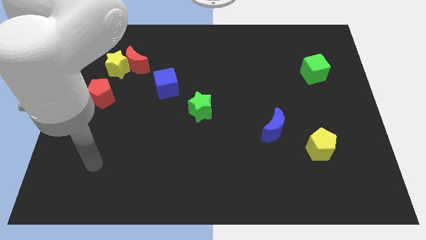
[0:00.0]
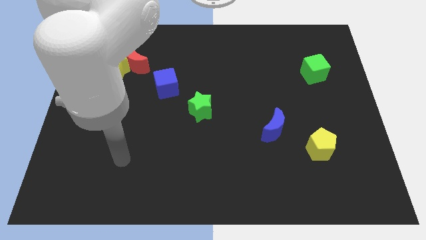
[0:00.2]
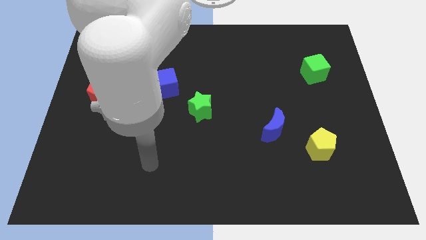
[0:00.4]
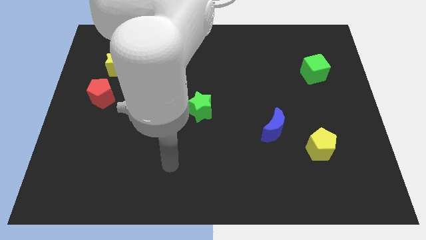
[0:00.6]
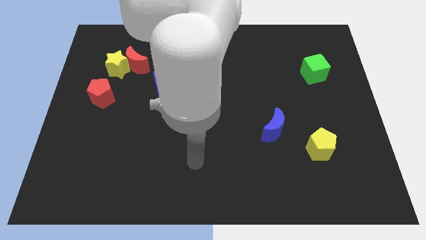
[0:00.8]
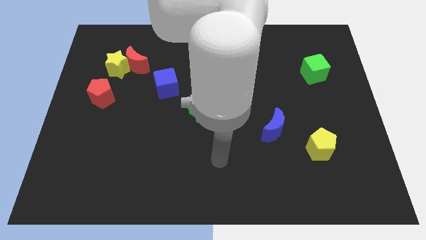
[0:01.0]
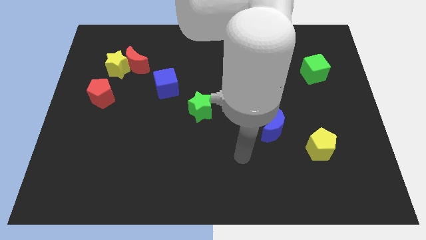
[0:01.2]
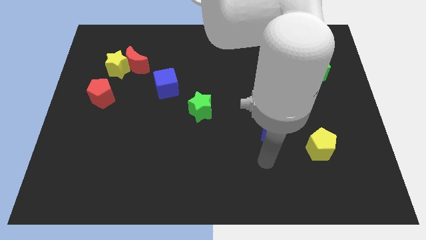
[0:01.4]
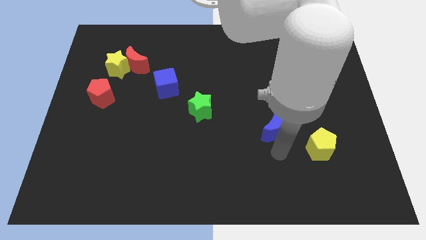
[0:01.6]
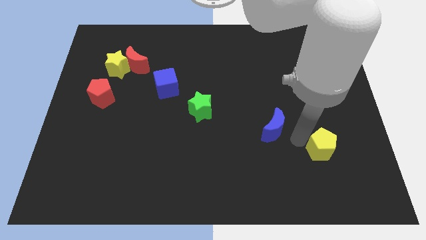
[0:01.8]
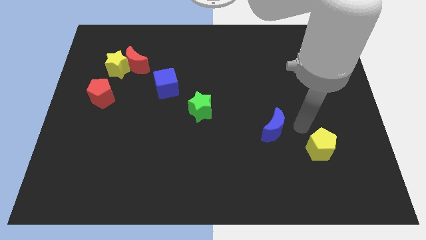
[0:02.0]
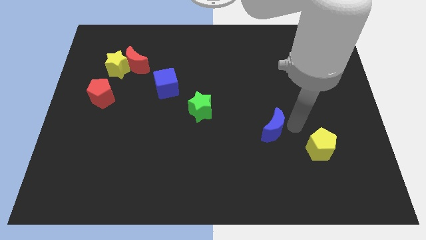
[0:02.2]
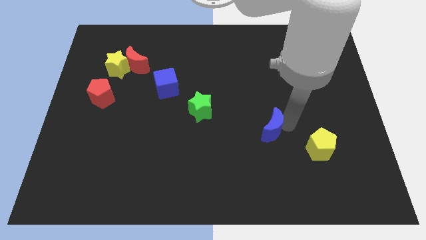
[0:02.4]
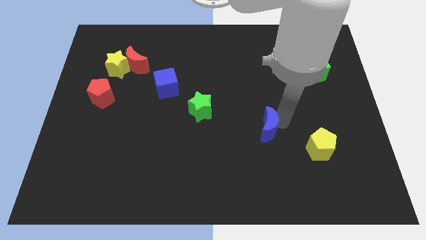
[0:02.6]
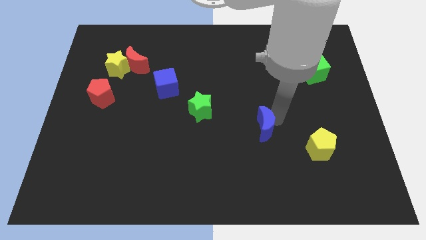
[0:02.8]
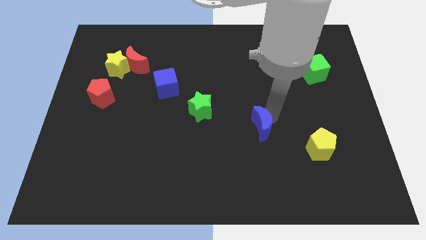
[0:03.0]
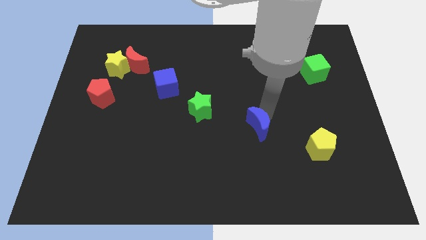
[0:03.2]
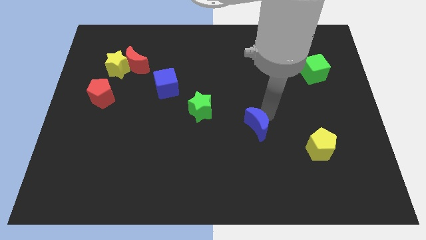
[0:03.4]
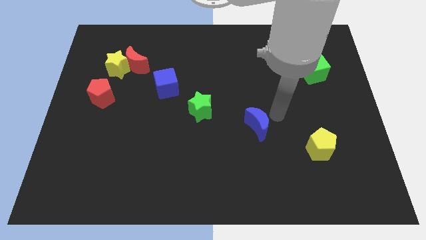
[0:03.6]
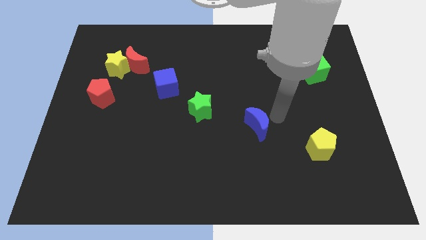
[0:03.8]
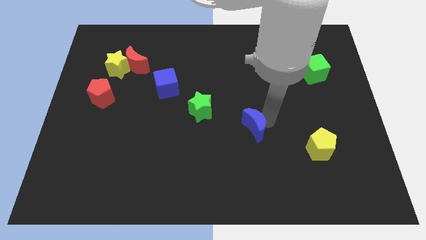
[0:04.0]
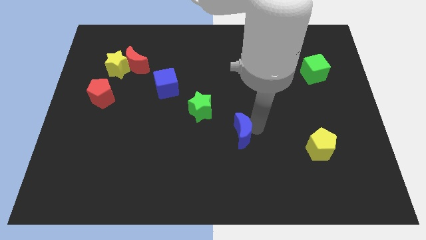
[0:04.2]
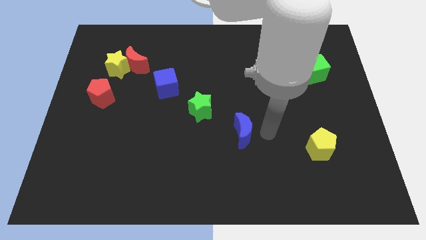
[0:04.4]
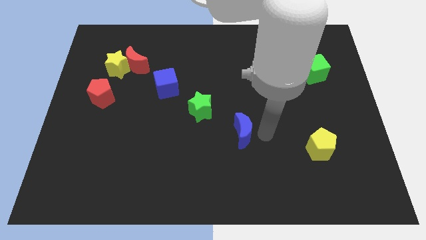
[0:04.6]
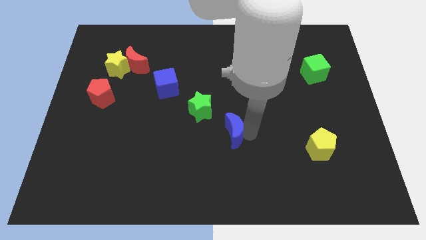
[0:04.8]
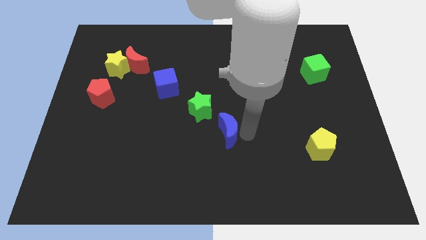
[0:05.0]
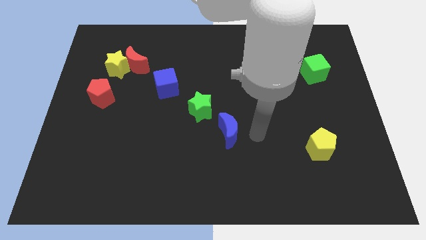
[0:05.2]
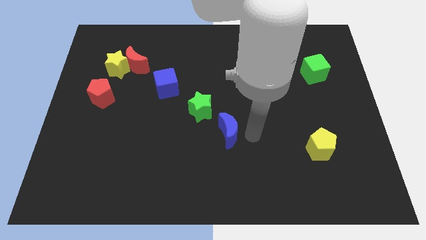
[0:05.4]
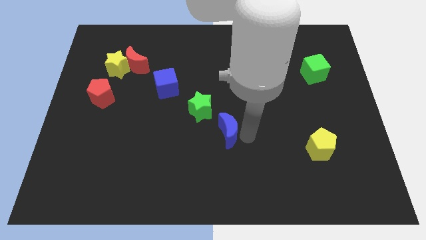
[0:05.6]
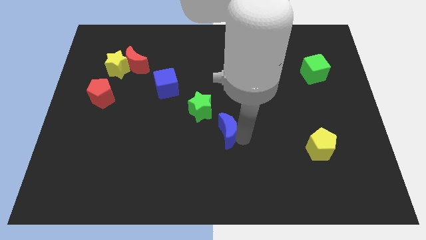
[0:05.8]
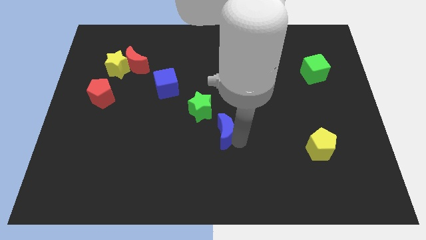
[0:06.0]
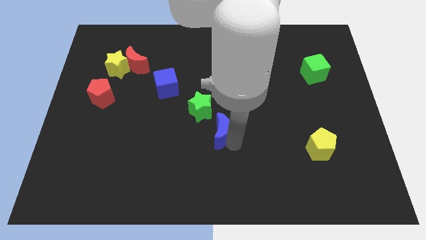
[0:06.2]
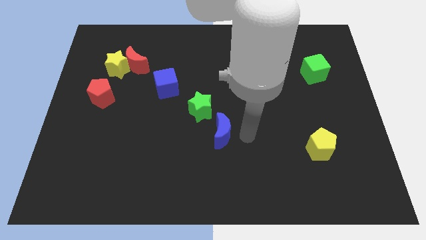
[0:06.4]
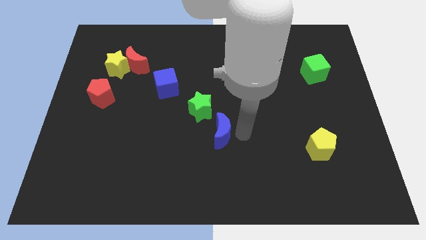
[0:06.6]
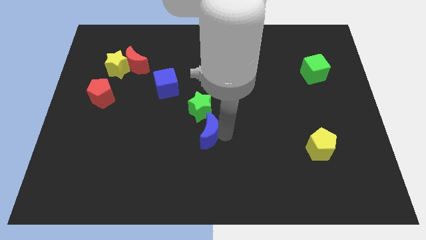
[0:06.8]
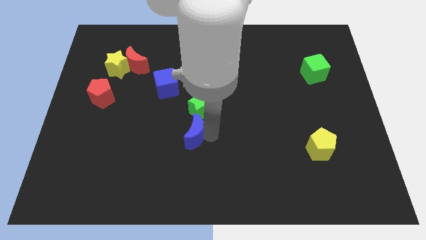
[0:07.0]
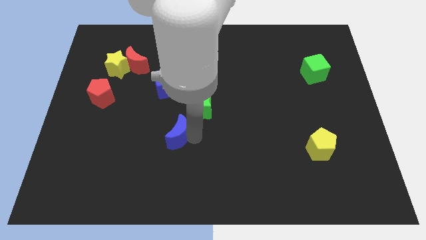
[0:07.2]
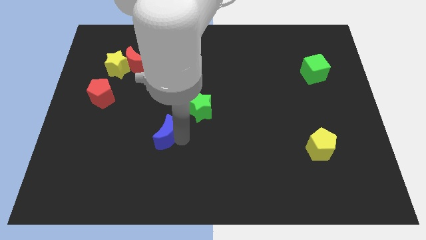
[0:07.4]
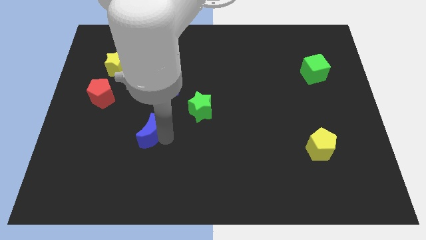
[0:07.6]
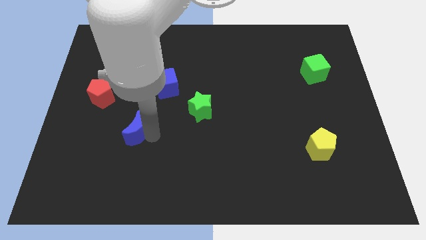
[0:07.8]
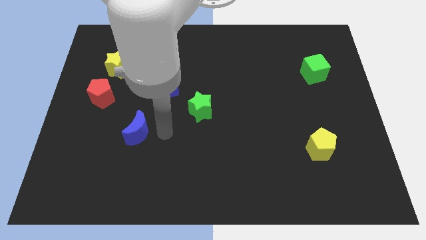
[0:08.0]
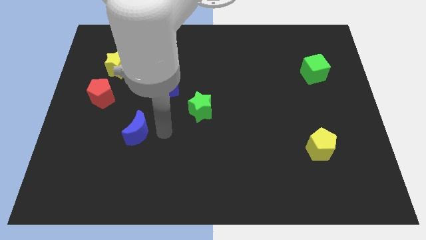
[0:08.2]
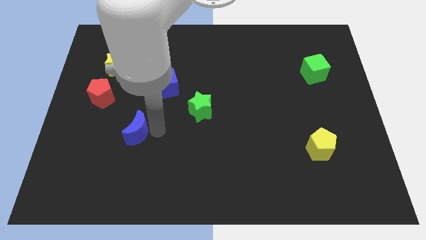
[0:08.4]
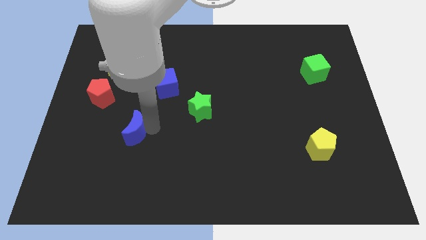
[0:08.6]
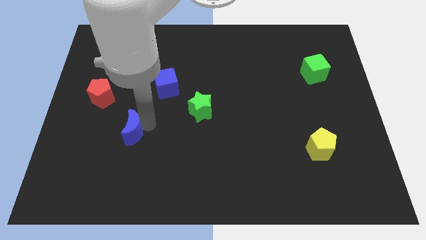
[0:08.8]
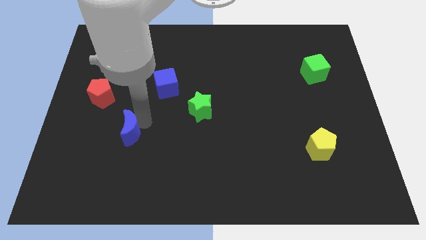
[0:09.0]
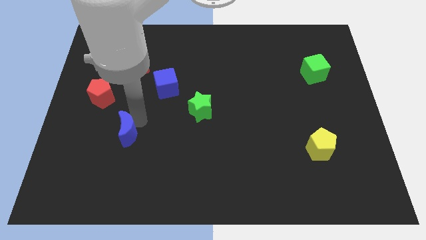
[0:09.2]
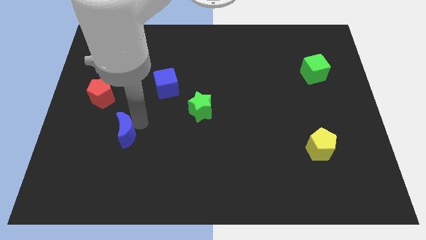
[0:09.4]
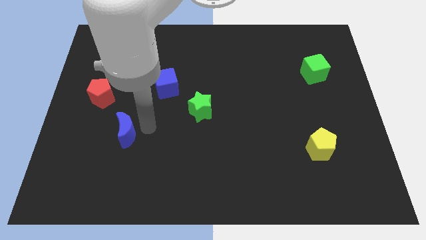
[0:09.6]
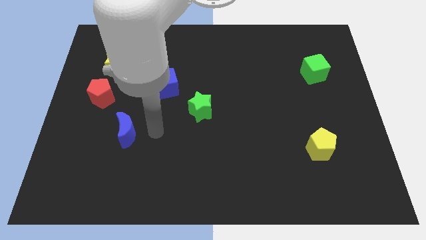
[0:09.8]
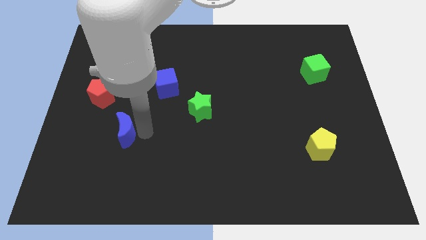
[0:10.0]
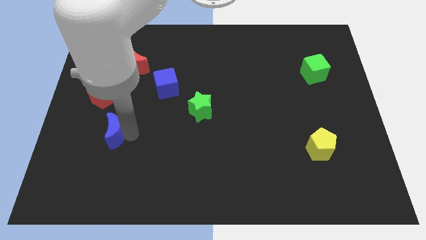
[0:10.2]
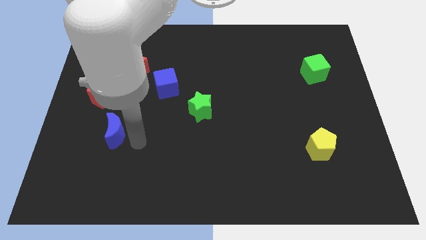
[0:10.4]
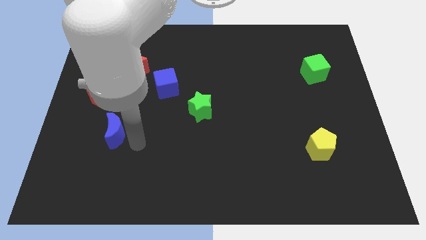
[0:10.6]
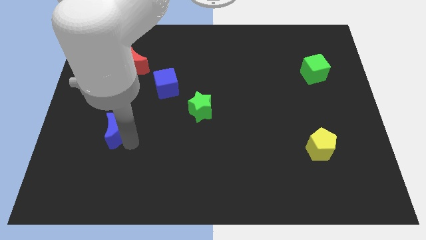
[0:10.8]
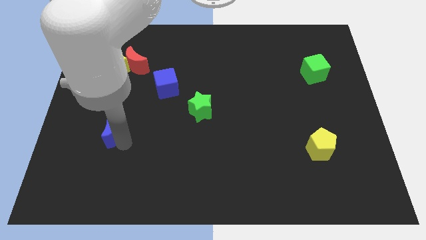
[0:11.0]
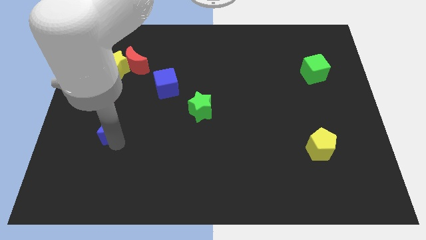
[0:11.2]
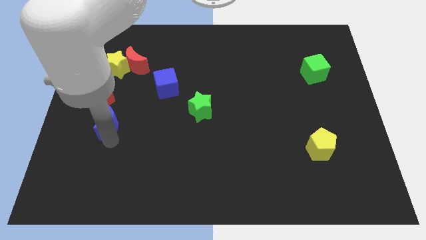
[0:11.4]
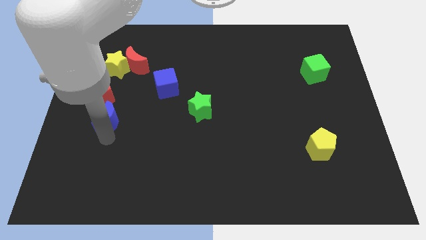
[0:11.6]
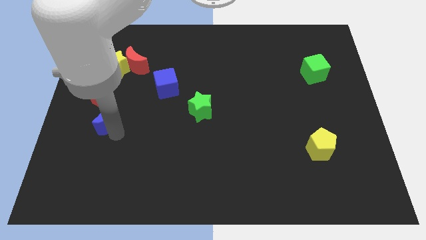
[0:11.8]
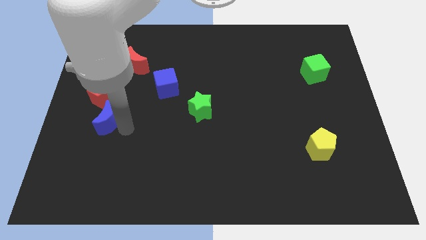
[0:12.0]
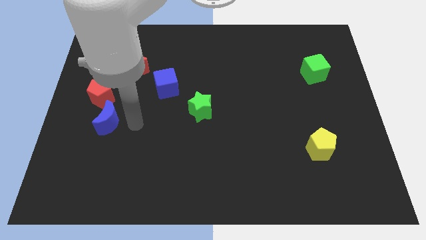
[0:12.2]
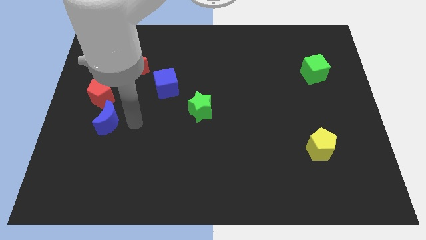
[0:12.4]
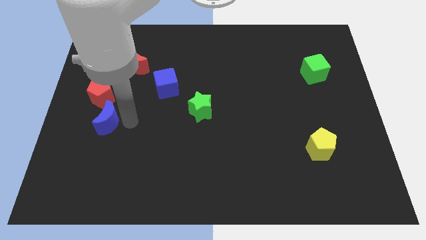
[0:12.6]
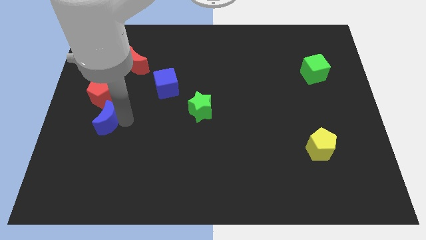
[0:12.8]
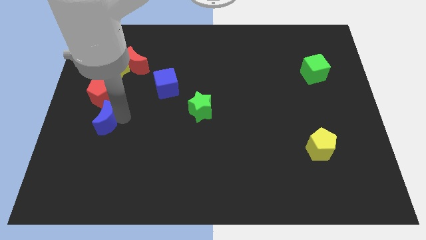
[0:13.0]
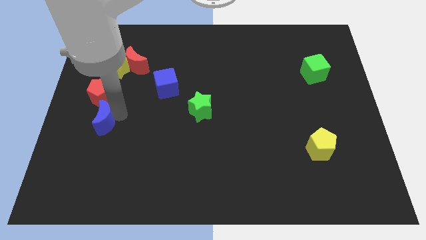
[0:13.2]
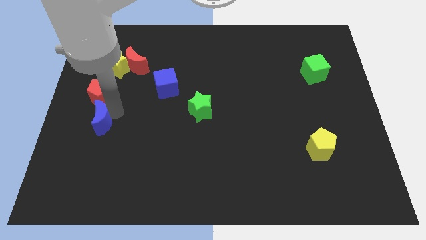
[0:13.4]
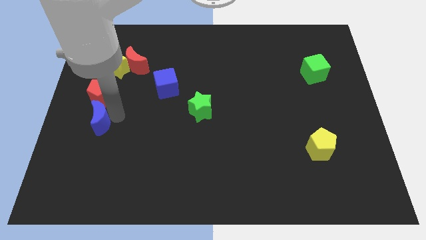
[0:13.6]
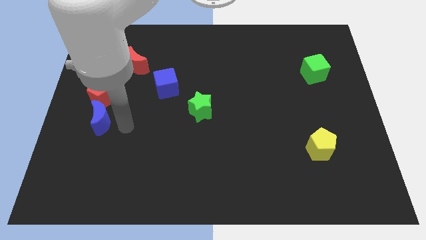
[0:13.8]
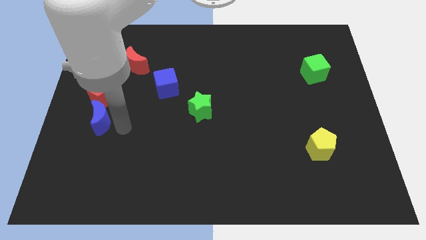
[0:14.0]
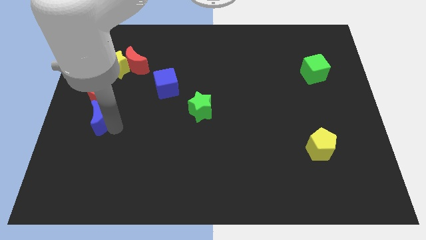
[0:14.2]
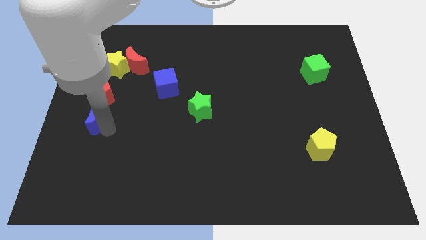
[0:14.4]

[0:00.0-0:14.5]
push the blue moon to the center left
